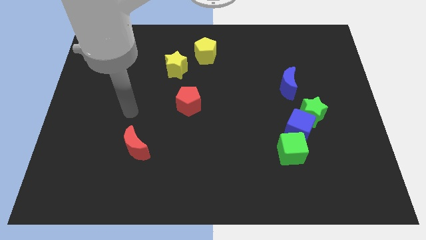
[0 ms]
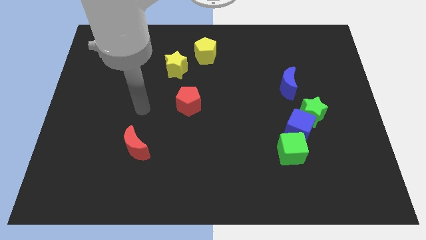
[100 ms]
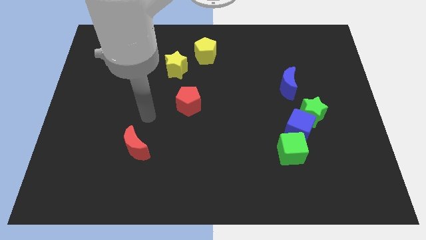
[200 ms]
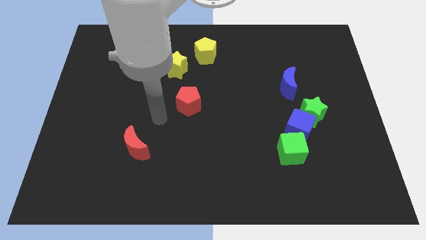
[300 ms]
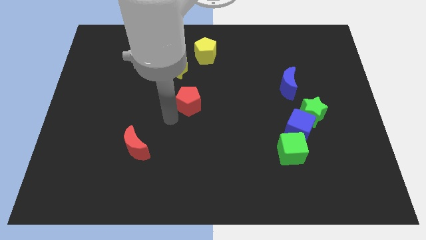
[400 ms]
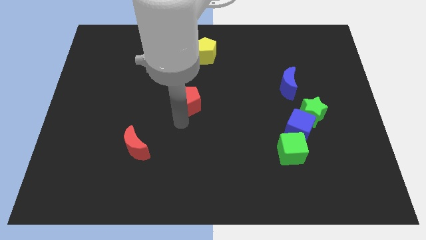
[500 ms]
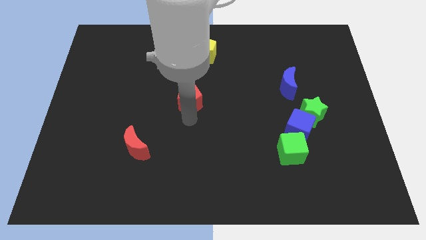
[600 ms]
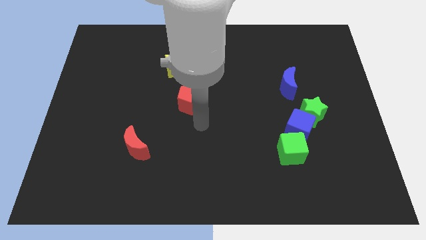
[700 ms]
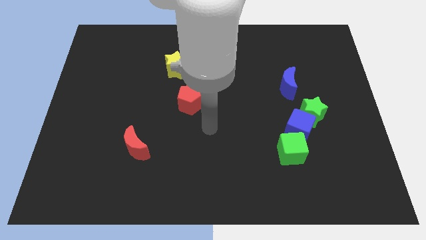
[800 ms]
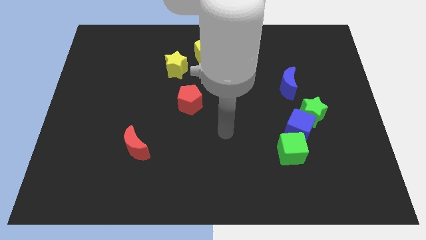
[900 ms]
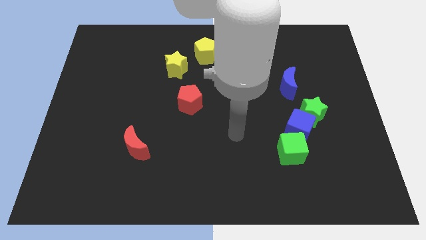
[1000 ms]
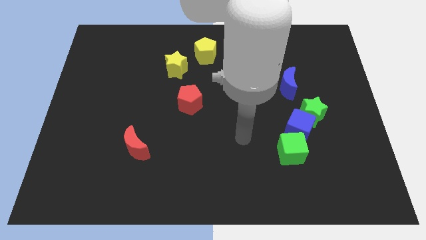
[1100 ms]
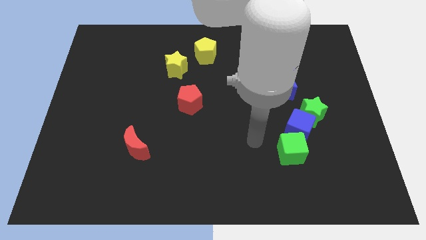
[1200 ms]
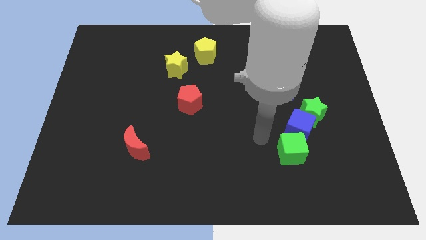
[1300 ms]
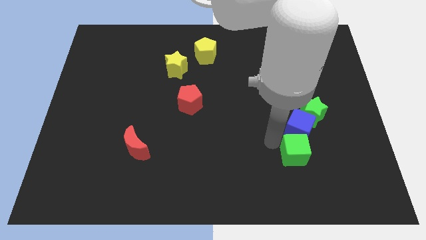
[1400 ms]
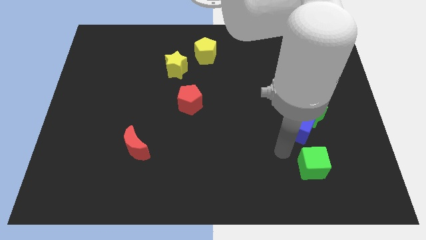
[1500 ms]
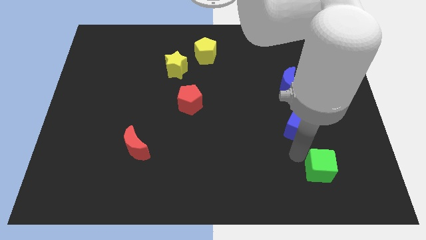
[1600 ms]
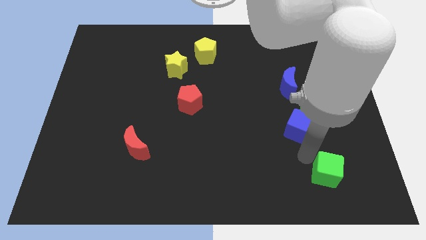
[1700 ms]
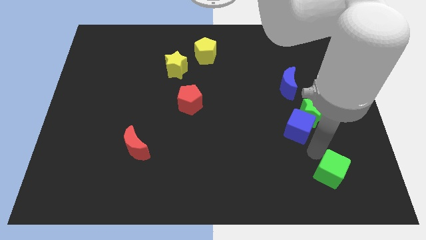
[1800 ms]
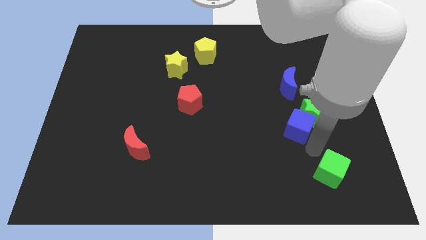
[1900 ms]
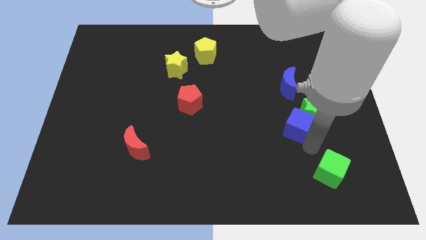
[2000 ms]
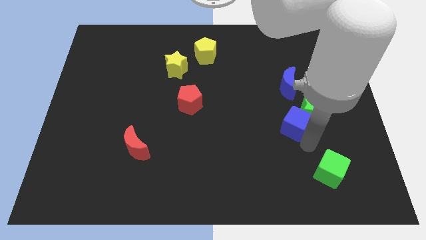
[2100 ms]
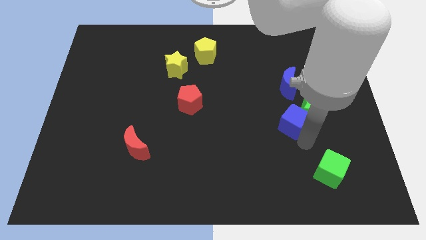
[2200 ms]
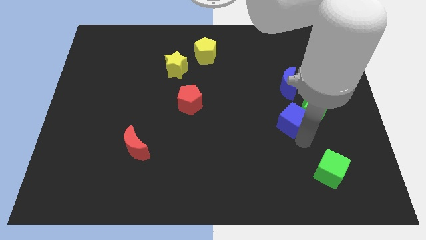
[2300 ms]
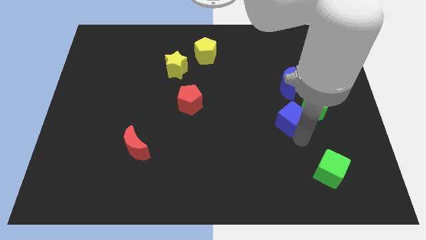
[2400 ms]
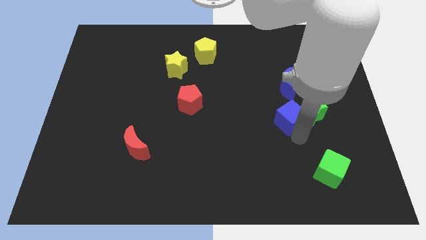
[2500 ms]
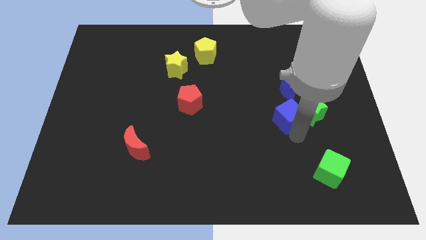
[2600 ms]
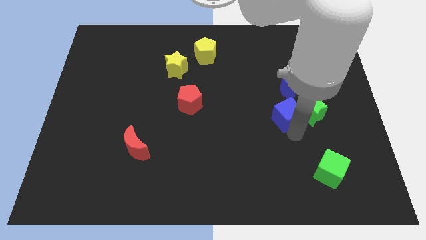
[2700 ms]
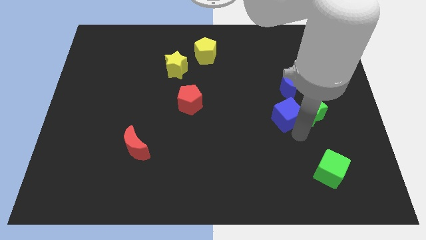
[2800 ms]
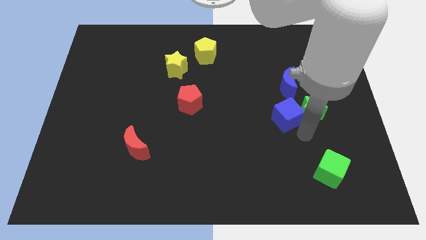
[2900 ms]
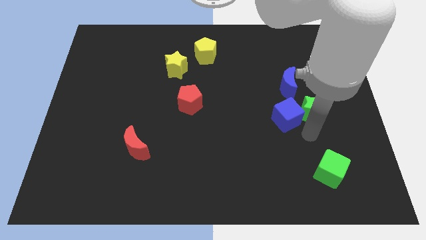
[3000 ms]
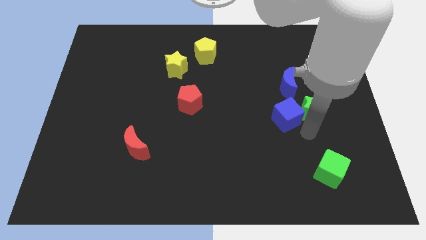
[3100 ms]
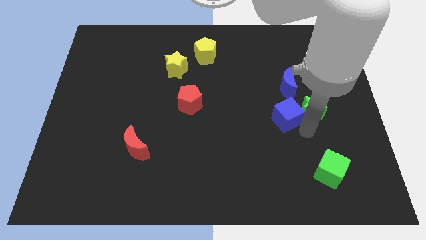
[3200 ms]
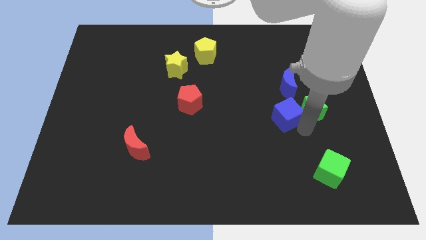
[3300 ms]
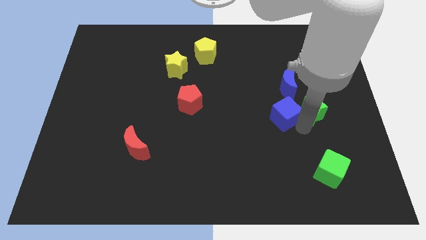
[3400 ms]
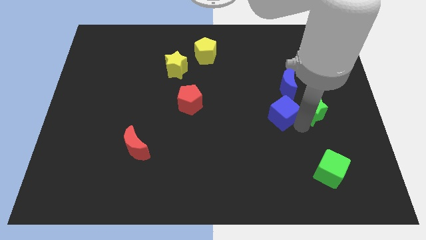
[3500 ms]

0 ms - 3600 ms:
move the blue cube away from the green star and green cube

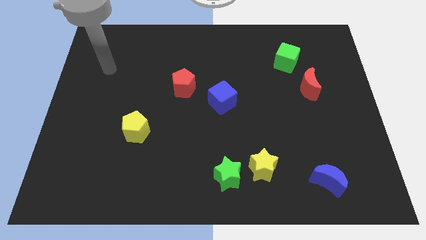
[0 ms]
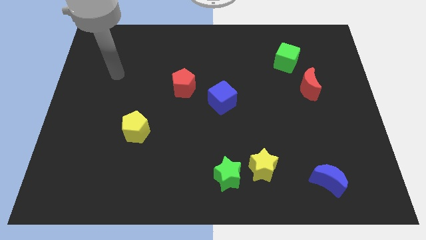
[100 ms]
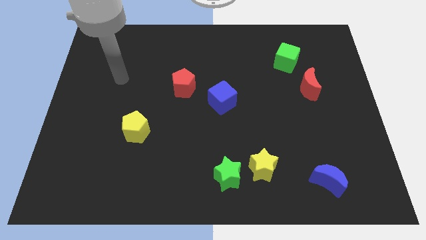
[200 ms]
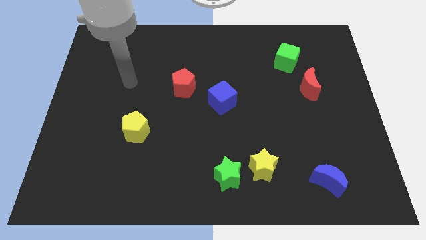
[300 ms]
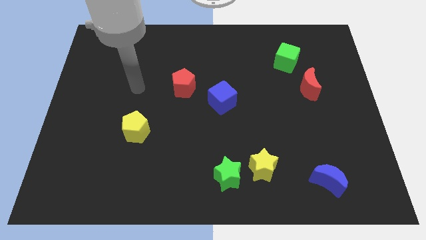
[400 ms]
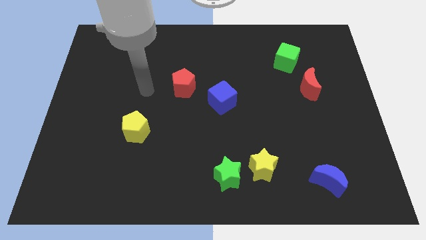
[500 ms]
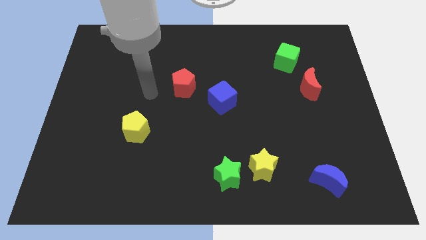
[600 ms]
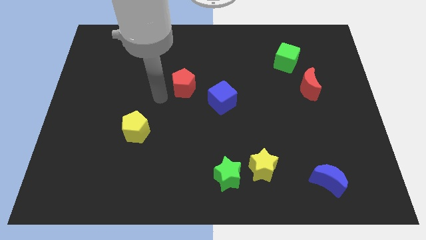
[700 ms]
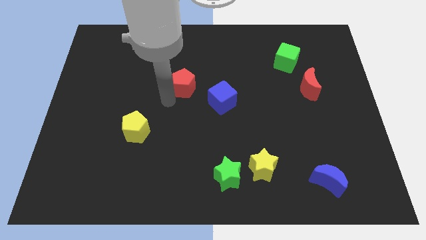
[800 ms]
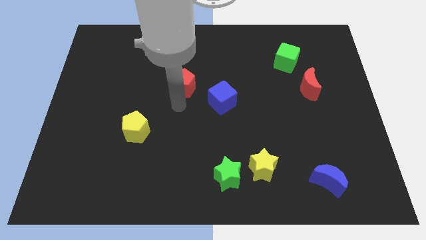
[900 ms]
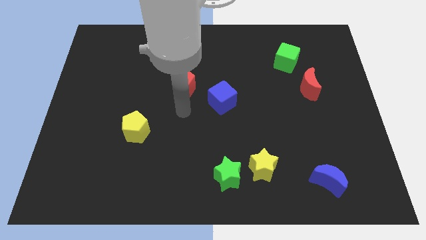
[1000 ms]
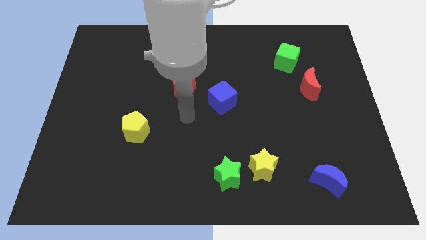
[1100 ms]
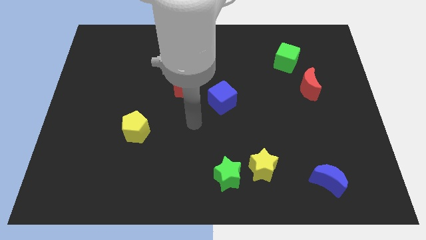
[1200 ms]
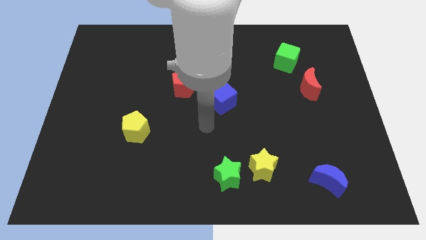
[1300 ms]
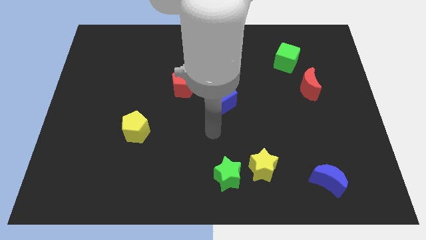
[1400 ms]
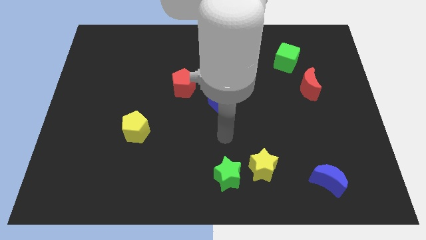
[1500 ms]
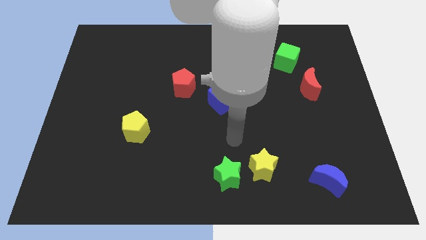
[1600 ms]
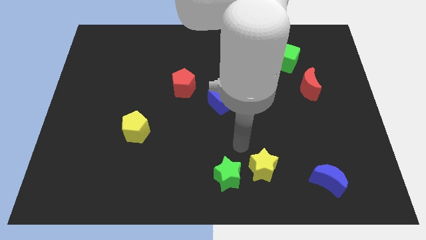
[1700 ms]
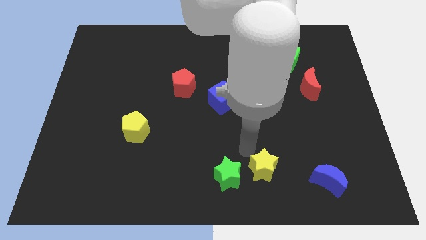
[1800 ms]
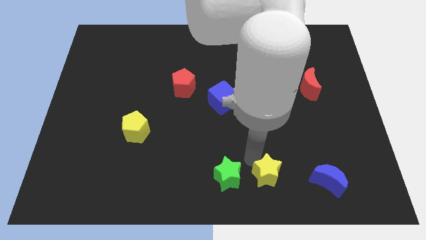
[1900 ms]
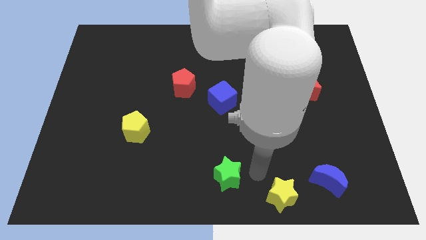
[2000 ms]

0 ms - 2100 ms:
move the green star away from the yellow star

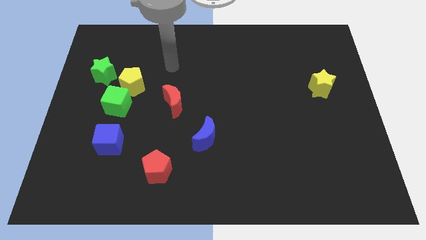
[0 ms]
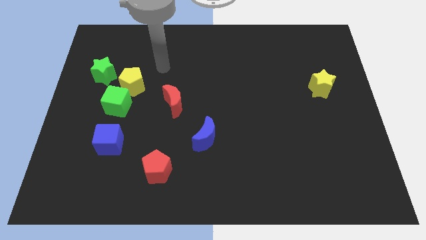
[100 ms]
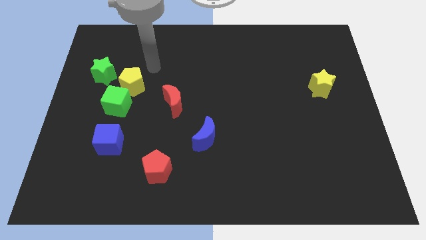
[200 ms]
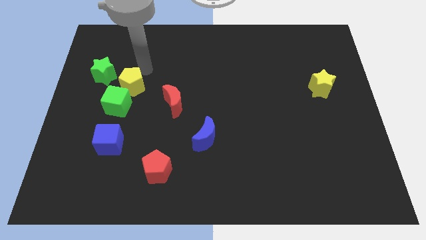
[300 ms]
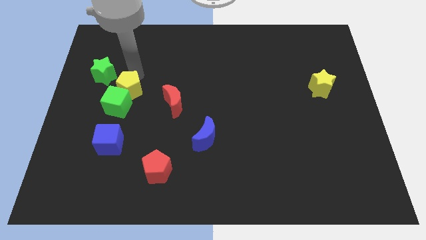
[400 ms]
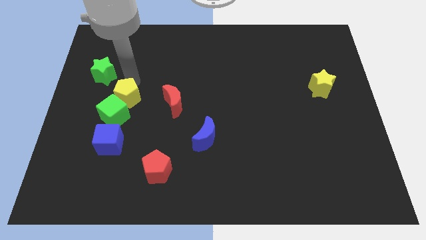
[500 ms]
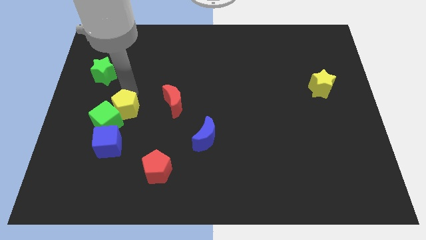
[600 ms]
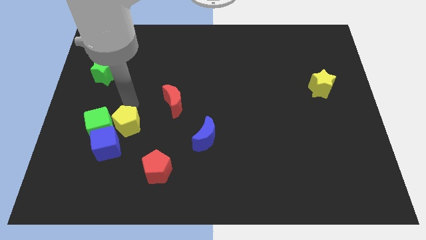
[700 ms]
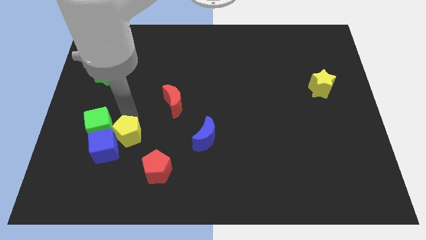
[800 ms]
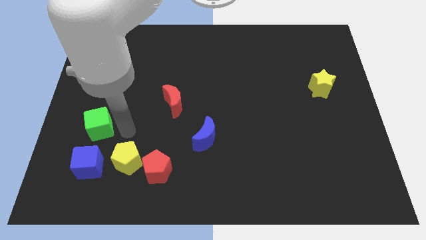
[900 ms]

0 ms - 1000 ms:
pull the green cube apart from the yellow pentagon

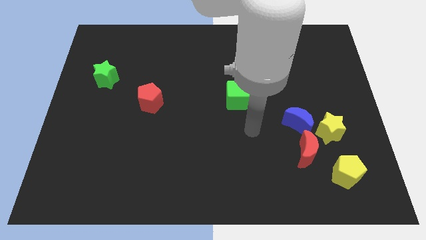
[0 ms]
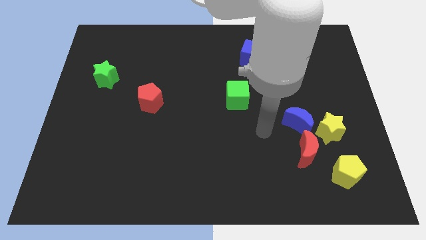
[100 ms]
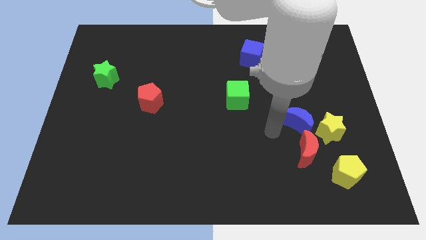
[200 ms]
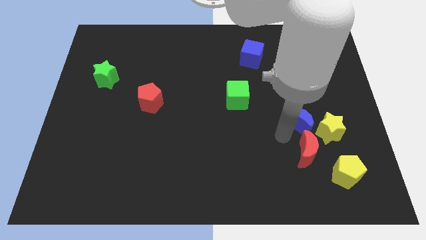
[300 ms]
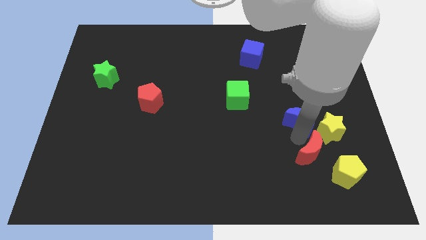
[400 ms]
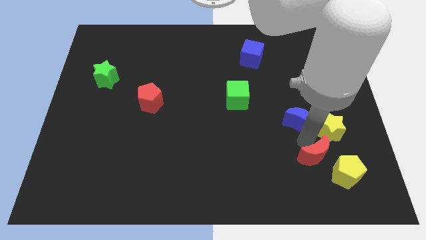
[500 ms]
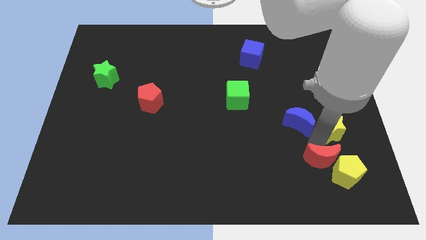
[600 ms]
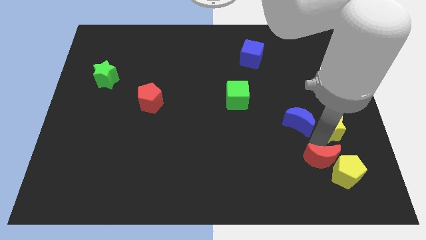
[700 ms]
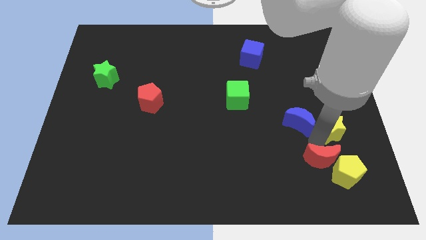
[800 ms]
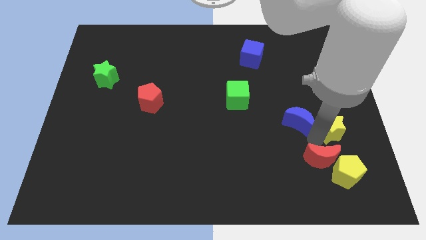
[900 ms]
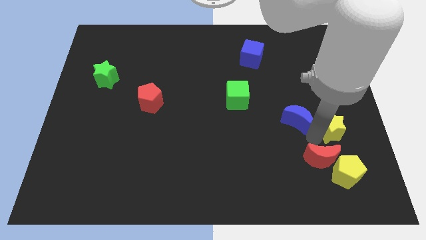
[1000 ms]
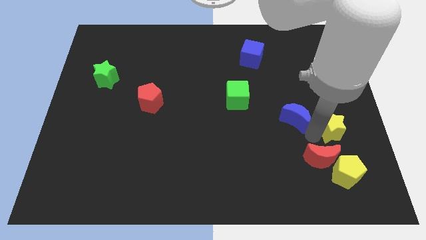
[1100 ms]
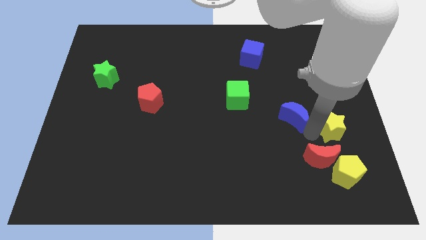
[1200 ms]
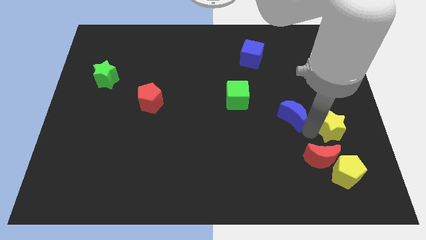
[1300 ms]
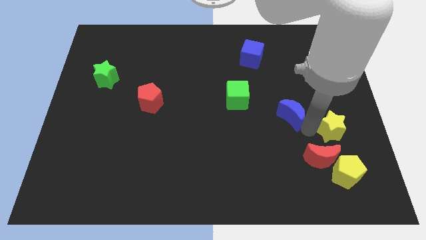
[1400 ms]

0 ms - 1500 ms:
move the blue moon away from the yellow star and red moon

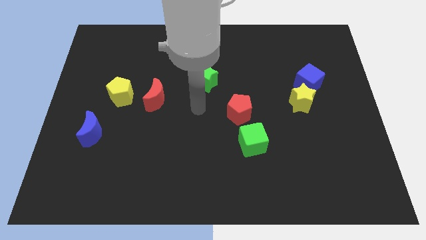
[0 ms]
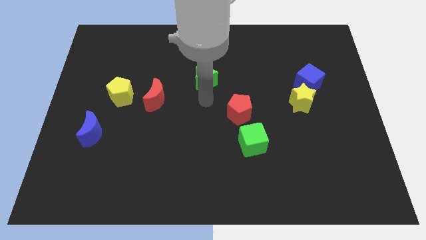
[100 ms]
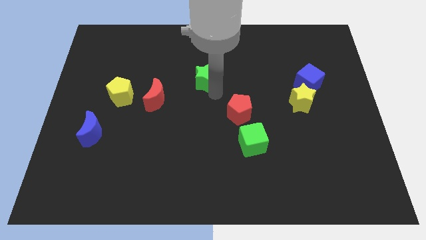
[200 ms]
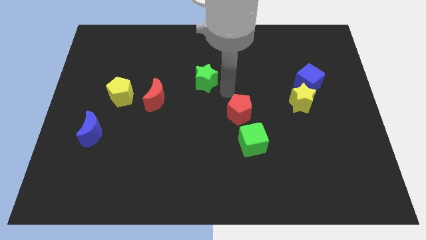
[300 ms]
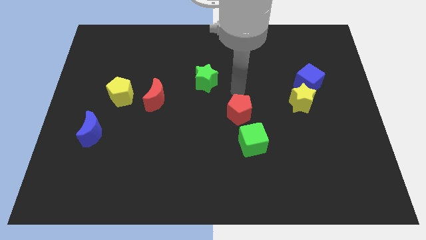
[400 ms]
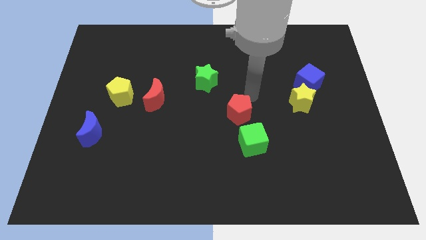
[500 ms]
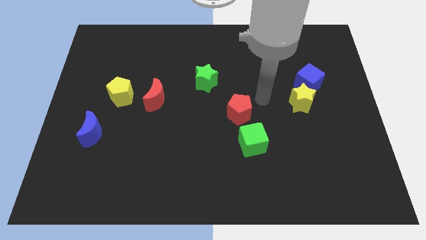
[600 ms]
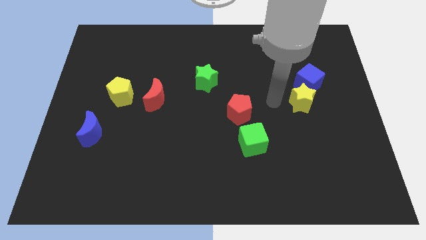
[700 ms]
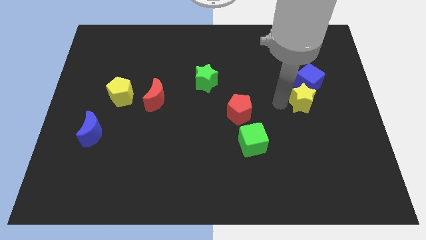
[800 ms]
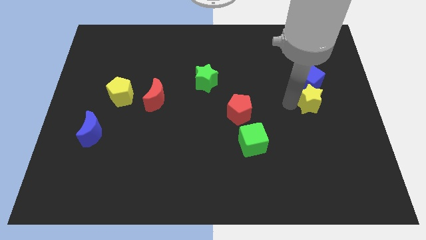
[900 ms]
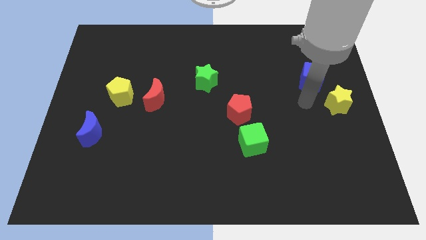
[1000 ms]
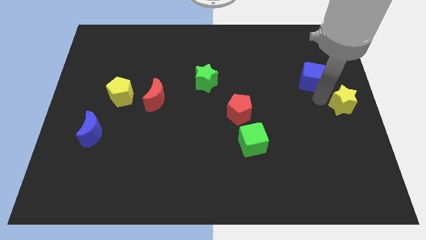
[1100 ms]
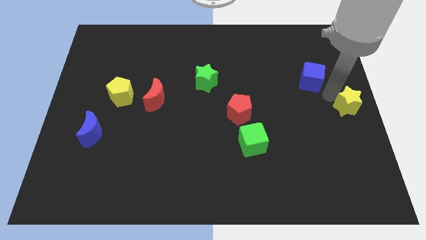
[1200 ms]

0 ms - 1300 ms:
separate the blue cube from the yellow star
